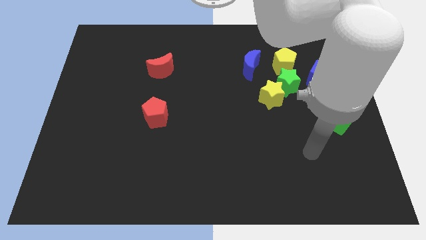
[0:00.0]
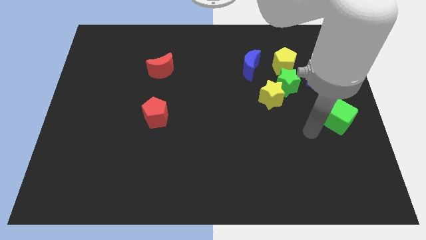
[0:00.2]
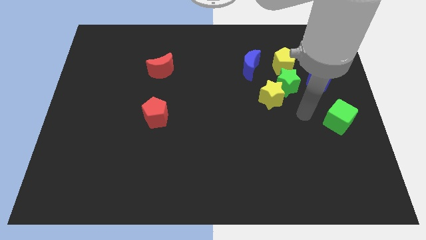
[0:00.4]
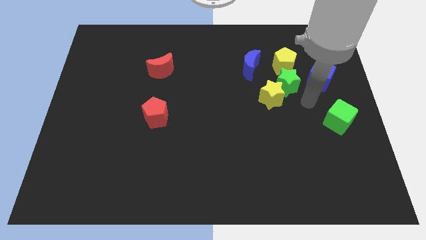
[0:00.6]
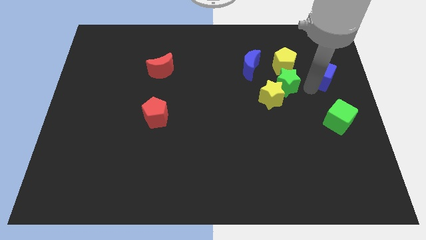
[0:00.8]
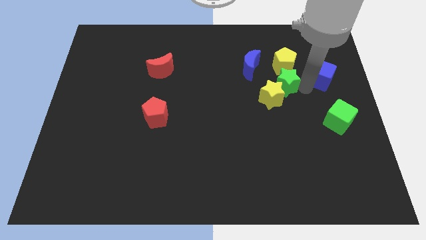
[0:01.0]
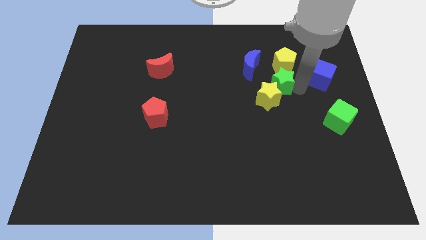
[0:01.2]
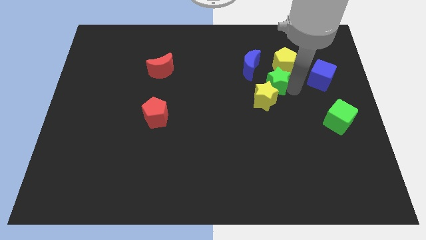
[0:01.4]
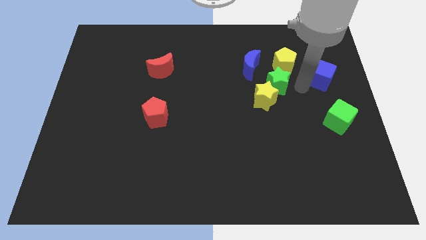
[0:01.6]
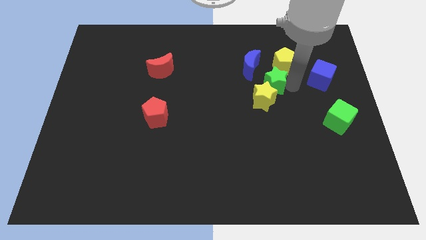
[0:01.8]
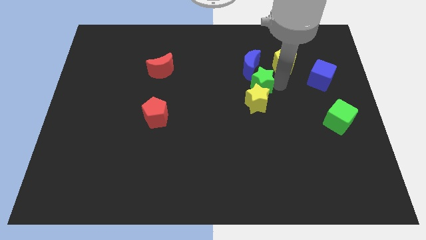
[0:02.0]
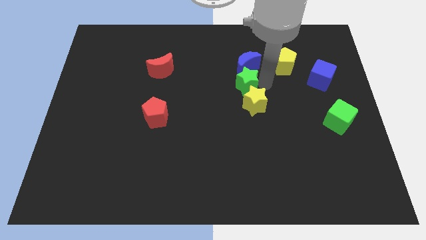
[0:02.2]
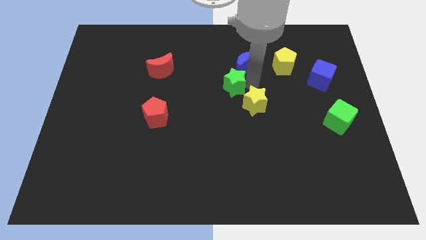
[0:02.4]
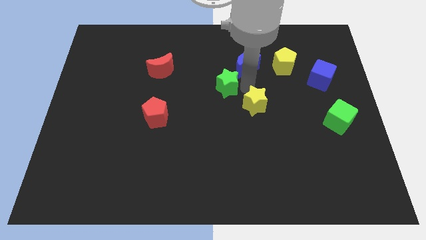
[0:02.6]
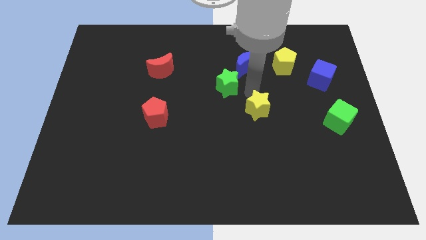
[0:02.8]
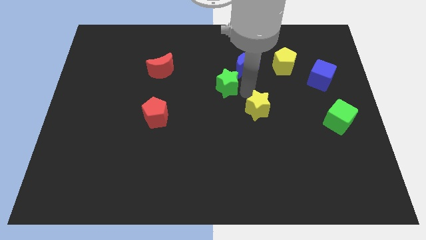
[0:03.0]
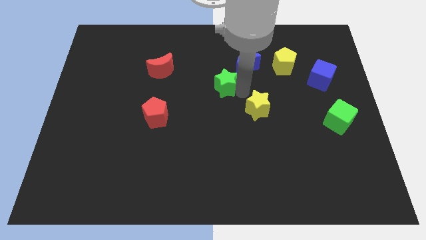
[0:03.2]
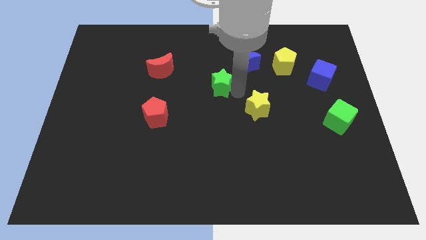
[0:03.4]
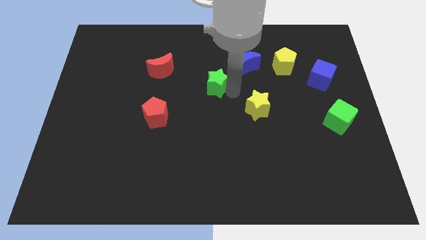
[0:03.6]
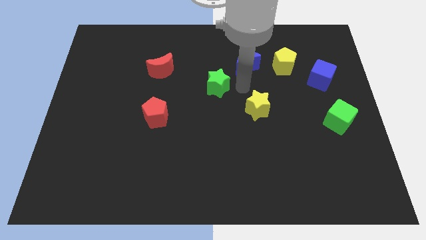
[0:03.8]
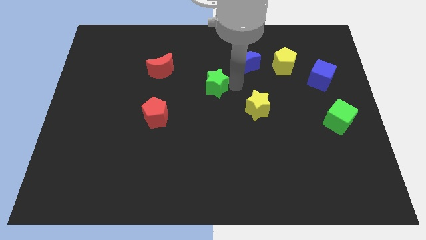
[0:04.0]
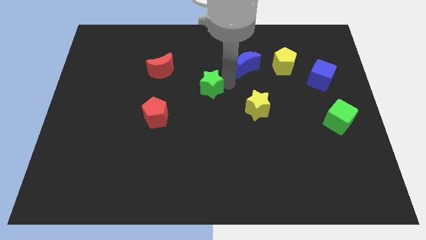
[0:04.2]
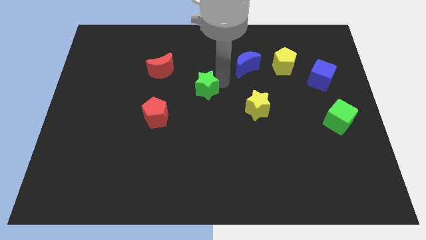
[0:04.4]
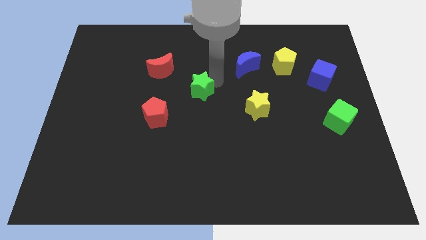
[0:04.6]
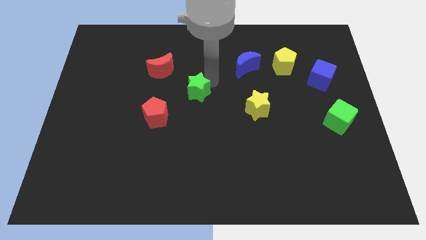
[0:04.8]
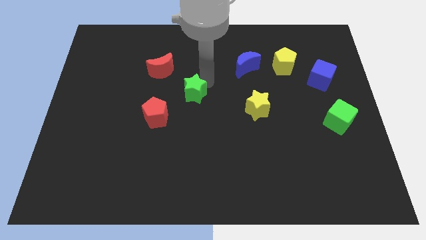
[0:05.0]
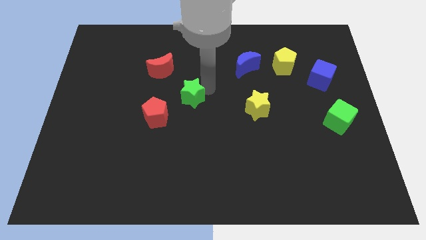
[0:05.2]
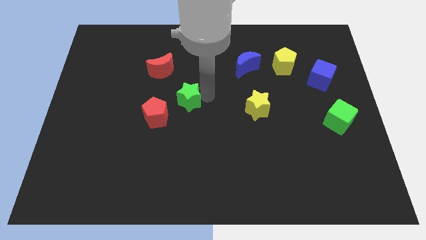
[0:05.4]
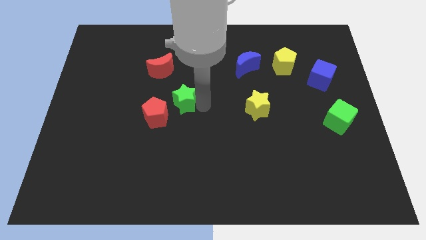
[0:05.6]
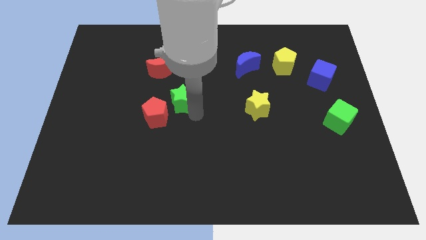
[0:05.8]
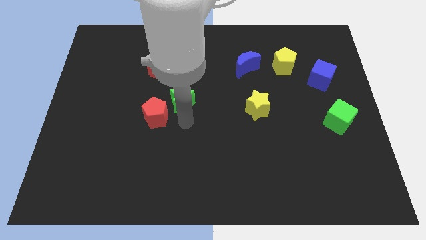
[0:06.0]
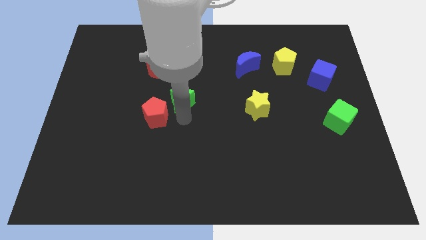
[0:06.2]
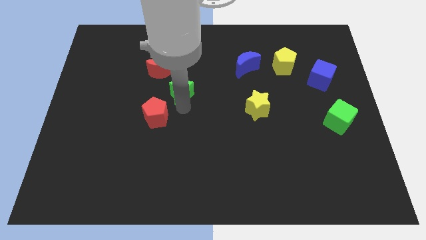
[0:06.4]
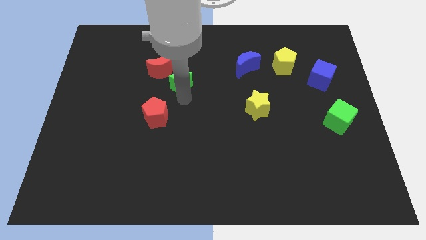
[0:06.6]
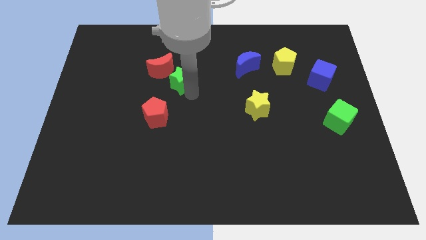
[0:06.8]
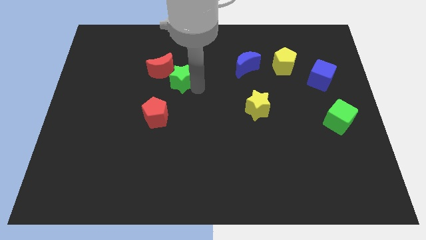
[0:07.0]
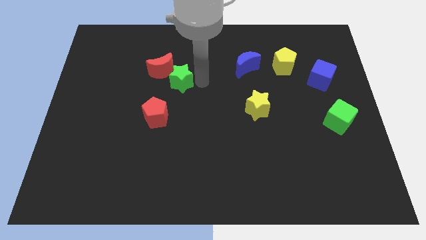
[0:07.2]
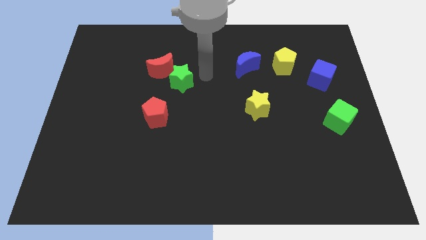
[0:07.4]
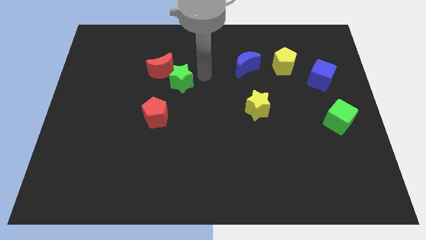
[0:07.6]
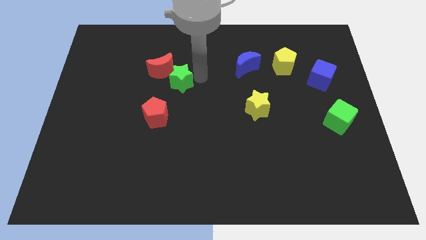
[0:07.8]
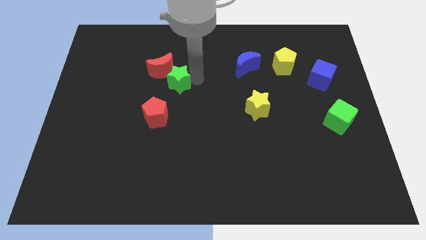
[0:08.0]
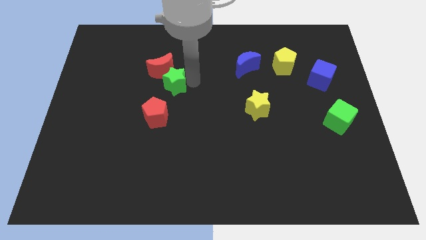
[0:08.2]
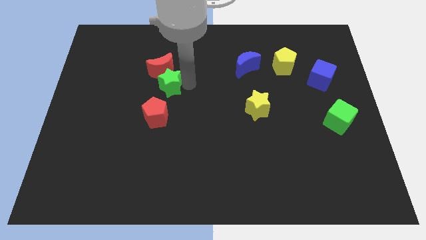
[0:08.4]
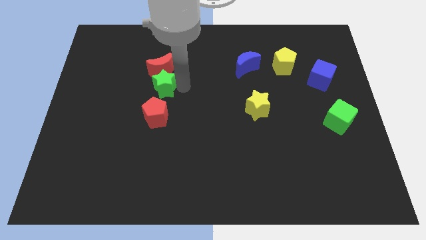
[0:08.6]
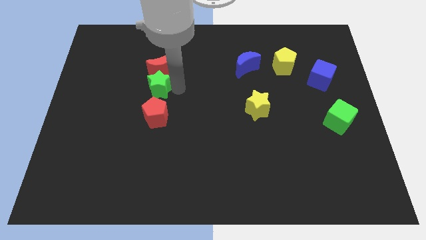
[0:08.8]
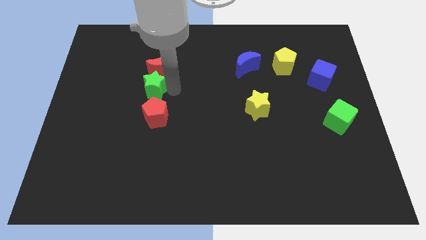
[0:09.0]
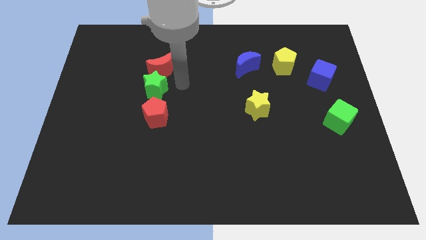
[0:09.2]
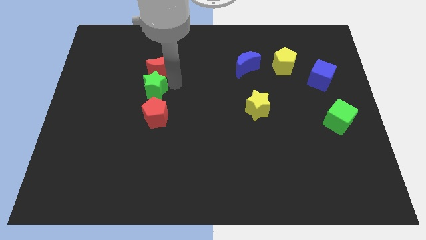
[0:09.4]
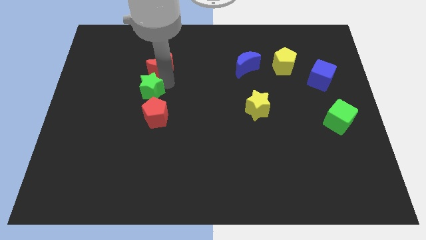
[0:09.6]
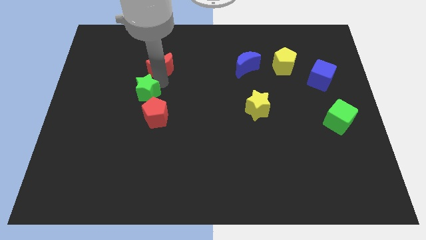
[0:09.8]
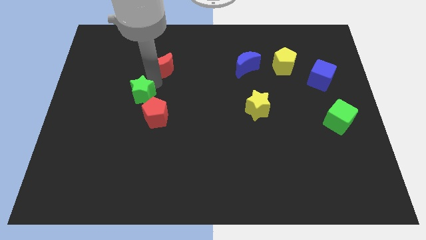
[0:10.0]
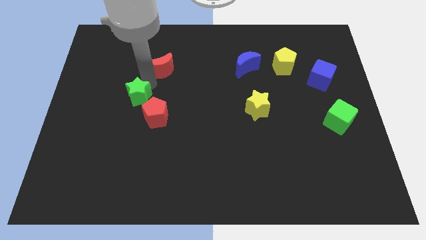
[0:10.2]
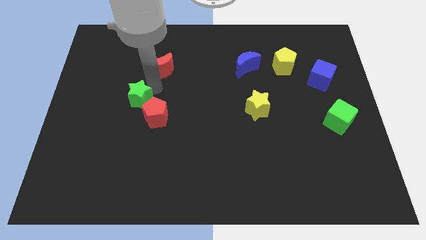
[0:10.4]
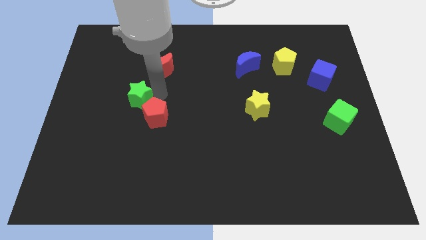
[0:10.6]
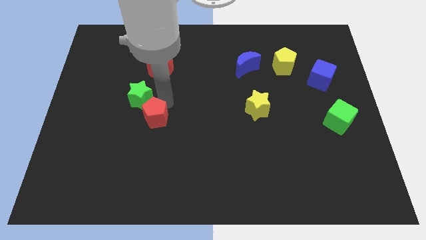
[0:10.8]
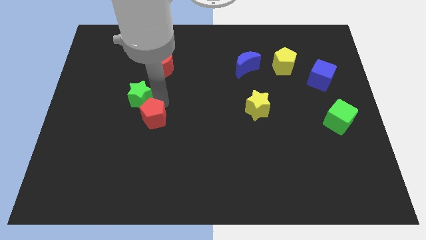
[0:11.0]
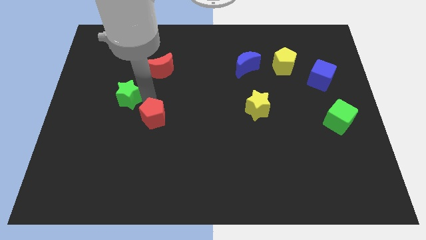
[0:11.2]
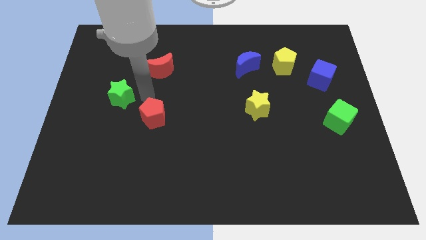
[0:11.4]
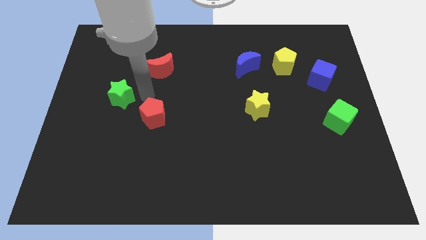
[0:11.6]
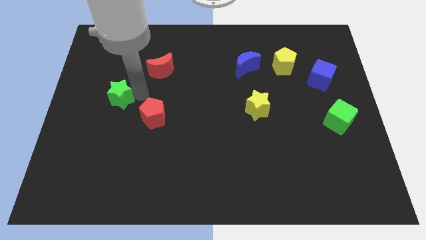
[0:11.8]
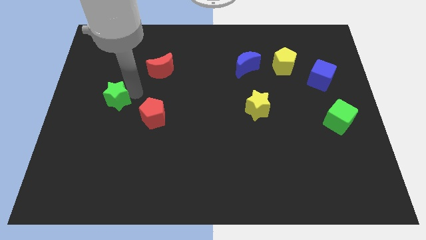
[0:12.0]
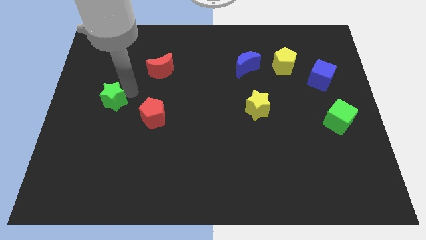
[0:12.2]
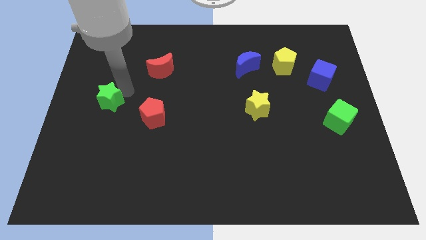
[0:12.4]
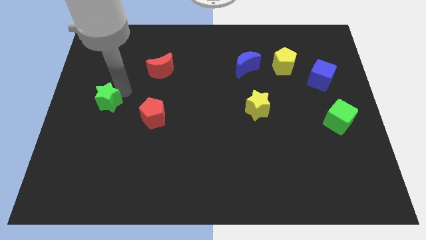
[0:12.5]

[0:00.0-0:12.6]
put the green star to the center left
